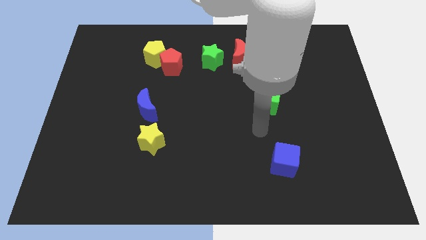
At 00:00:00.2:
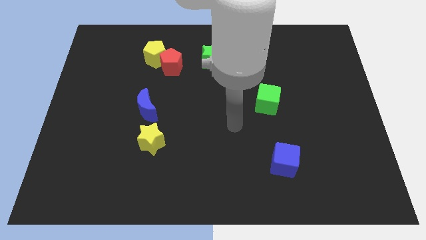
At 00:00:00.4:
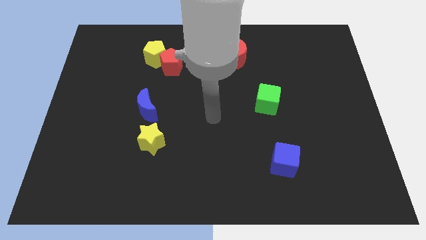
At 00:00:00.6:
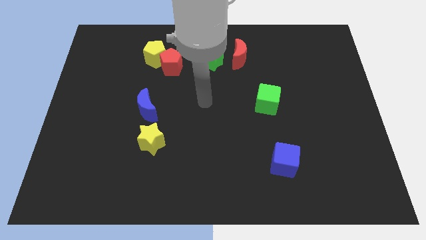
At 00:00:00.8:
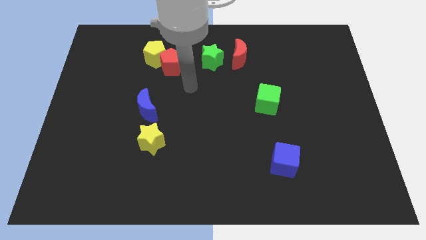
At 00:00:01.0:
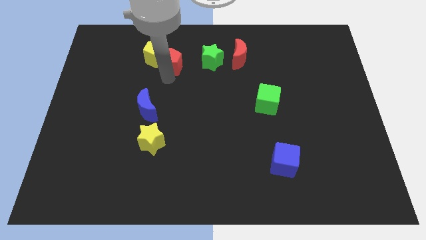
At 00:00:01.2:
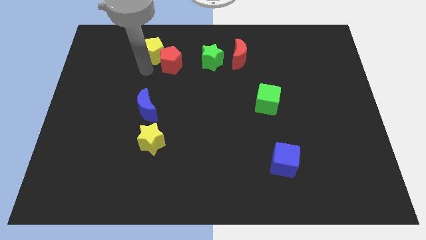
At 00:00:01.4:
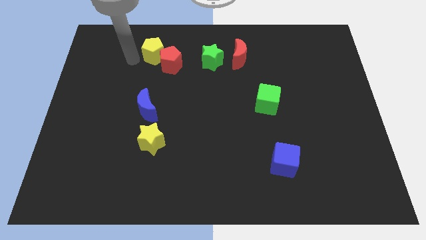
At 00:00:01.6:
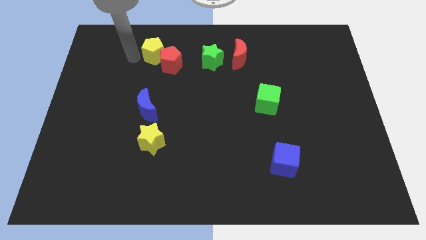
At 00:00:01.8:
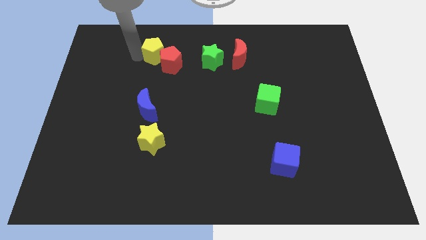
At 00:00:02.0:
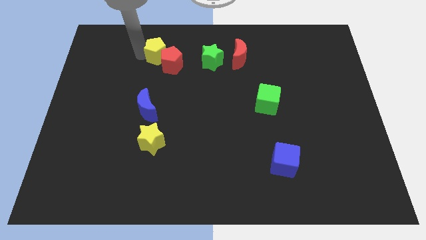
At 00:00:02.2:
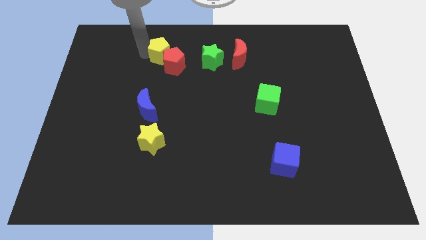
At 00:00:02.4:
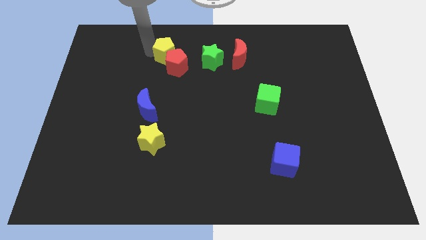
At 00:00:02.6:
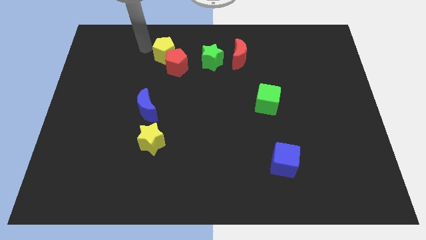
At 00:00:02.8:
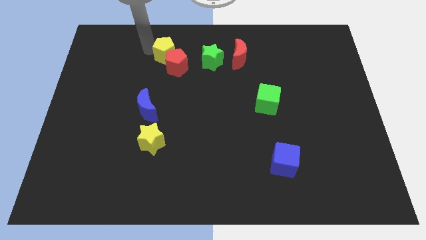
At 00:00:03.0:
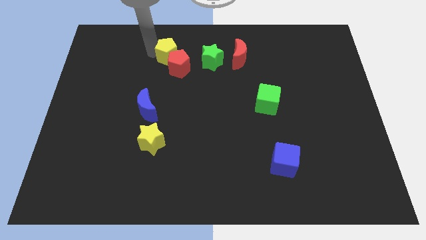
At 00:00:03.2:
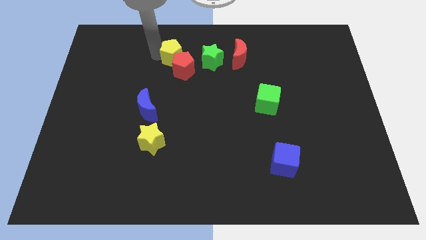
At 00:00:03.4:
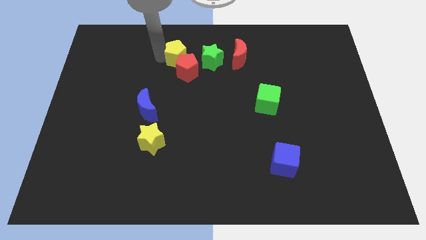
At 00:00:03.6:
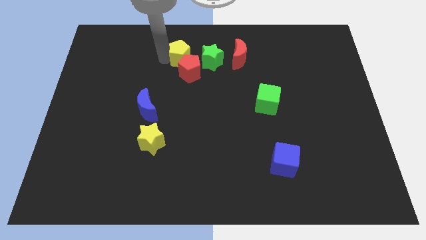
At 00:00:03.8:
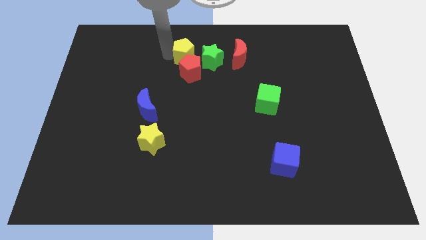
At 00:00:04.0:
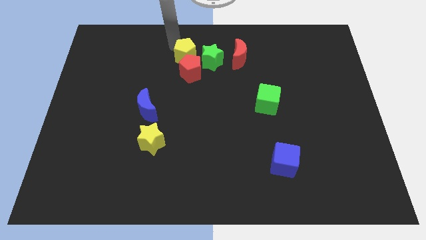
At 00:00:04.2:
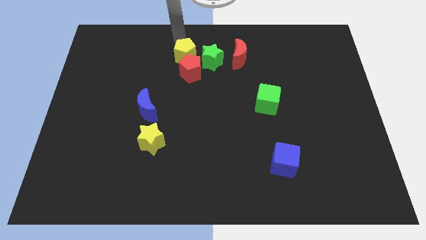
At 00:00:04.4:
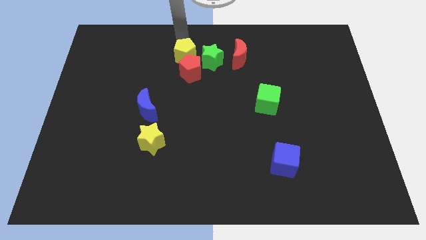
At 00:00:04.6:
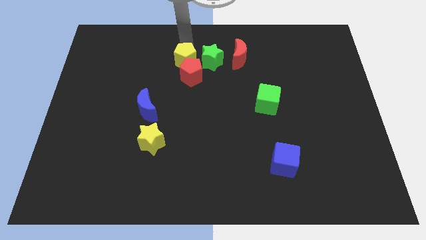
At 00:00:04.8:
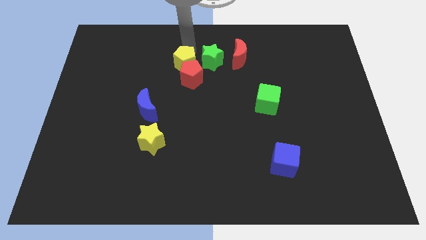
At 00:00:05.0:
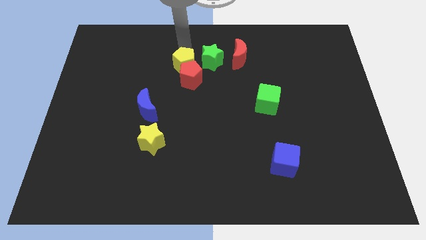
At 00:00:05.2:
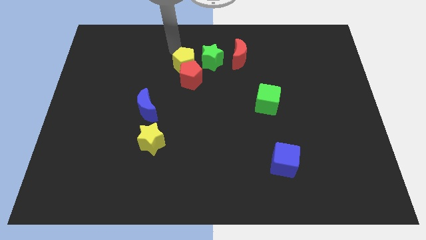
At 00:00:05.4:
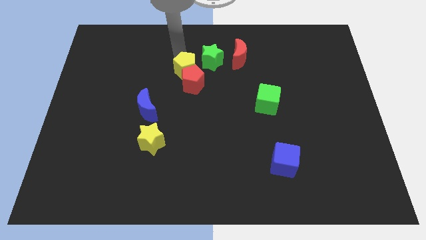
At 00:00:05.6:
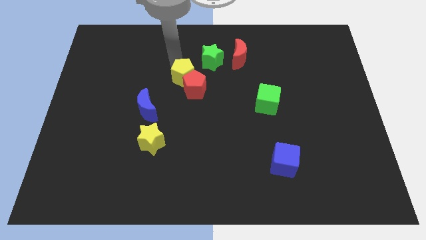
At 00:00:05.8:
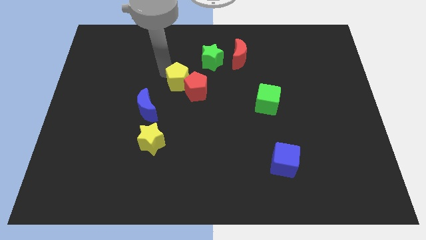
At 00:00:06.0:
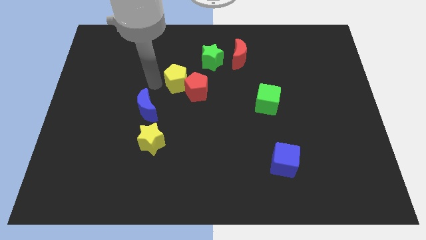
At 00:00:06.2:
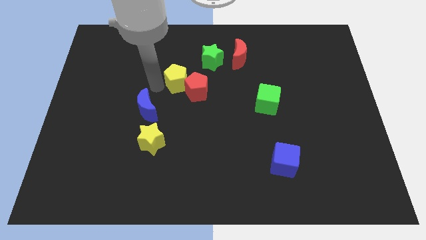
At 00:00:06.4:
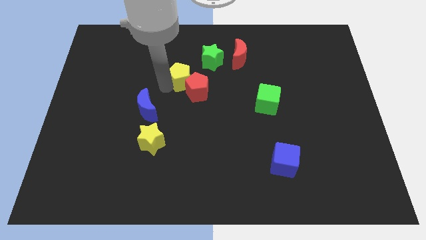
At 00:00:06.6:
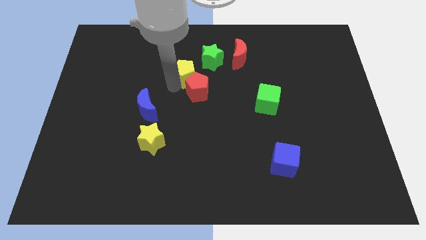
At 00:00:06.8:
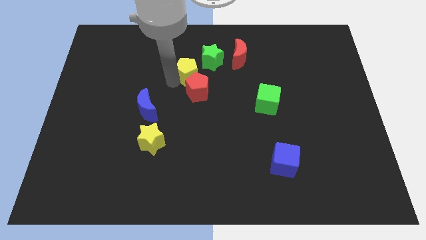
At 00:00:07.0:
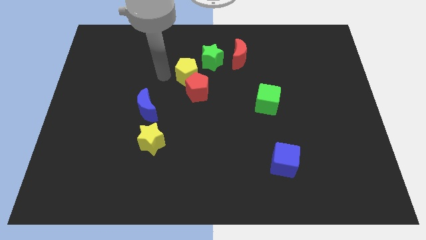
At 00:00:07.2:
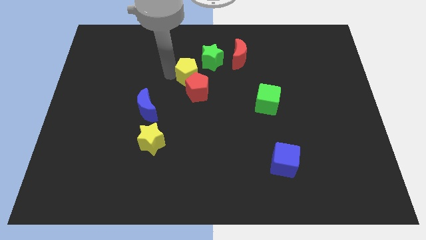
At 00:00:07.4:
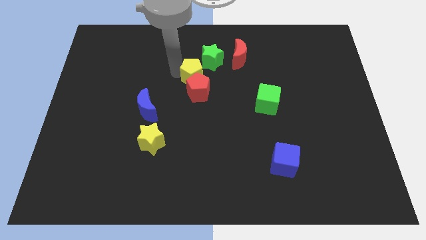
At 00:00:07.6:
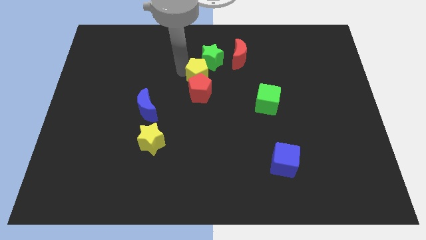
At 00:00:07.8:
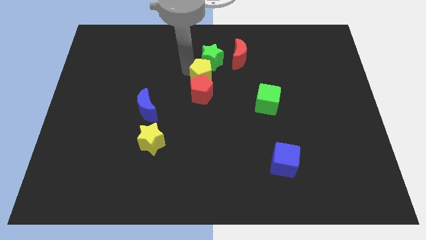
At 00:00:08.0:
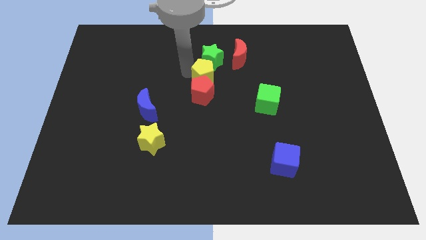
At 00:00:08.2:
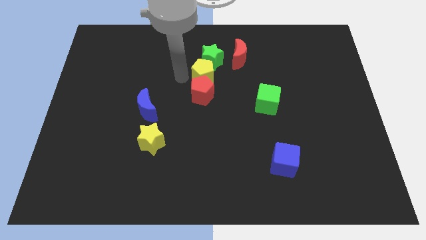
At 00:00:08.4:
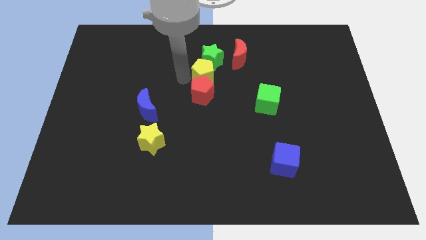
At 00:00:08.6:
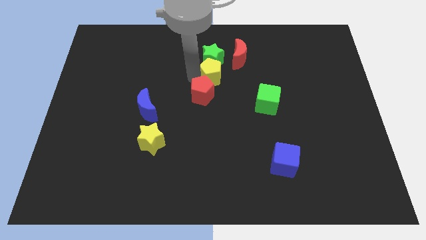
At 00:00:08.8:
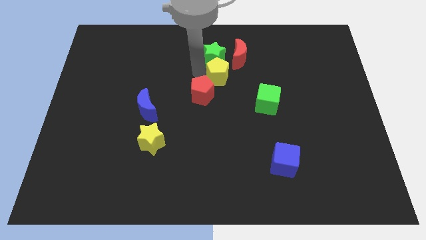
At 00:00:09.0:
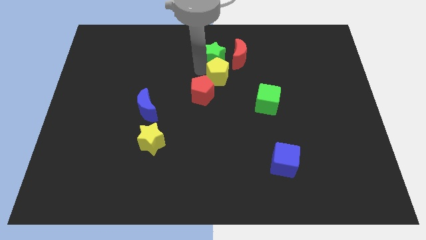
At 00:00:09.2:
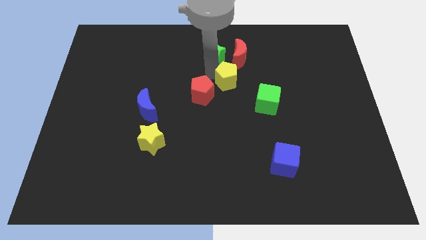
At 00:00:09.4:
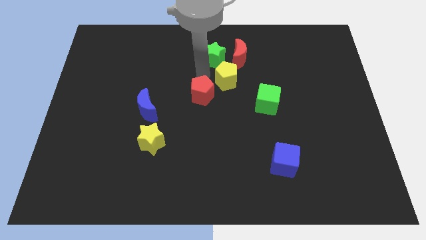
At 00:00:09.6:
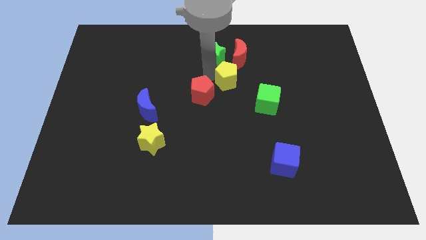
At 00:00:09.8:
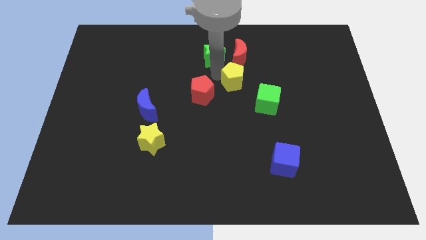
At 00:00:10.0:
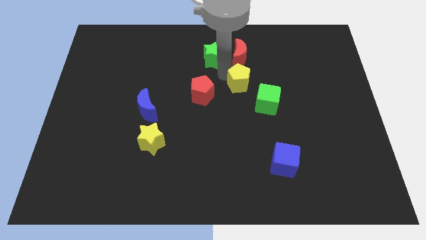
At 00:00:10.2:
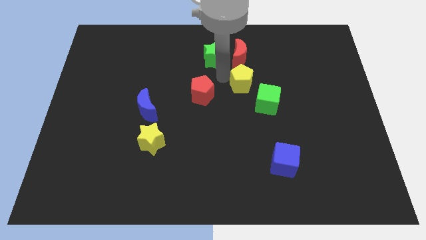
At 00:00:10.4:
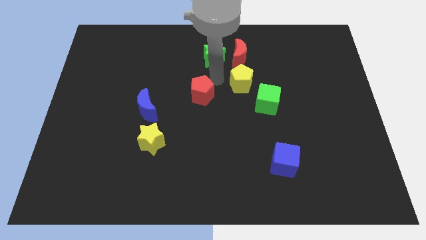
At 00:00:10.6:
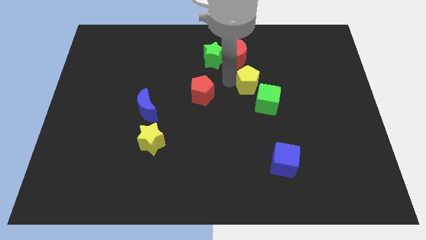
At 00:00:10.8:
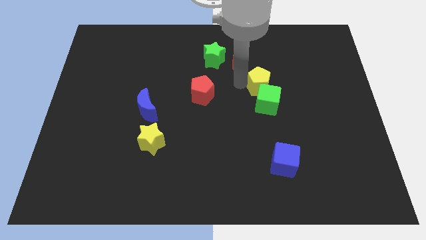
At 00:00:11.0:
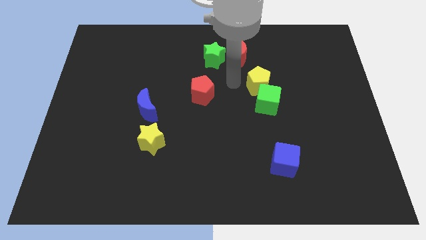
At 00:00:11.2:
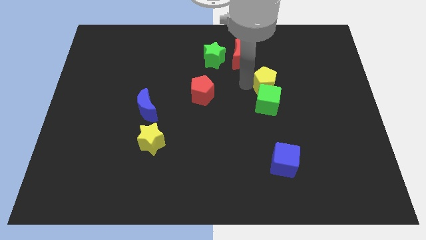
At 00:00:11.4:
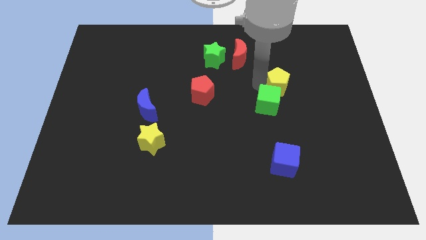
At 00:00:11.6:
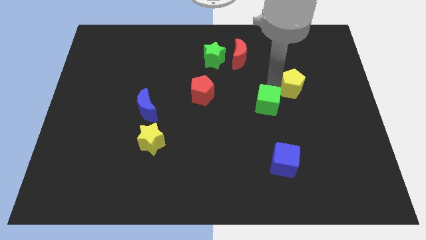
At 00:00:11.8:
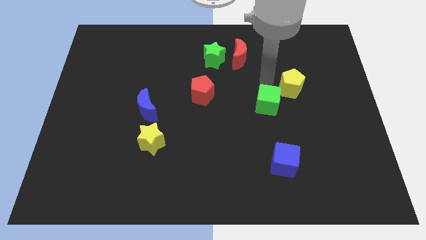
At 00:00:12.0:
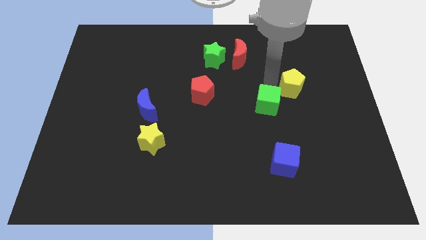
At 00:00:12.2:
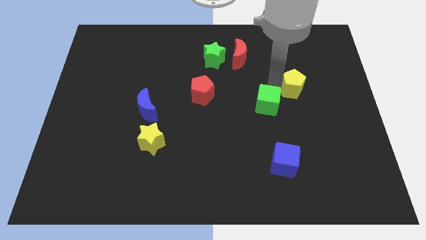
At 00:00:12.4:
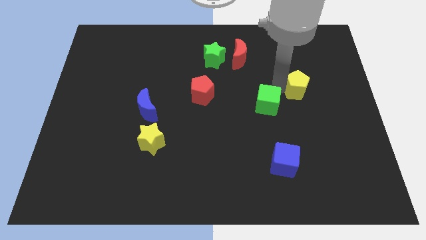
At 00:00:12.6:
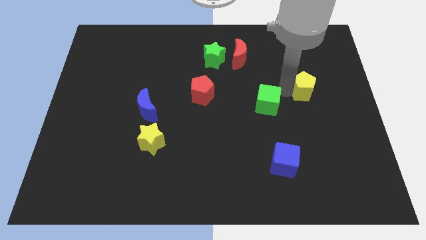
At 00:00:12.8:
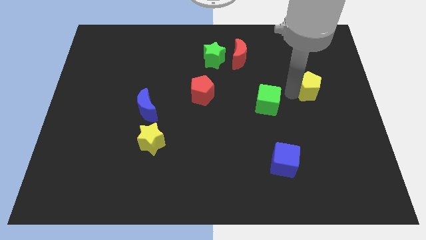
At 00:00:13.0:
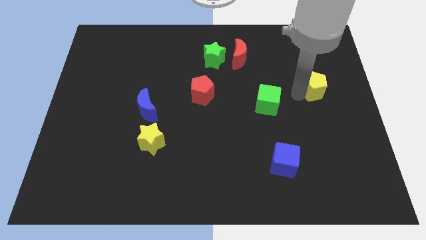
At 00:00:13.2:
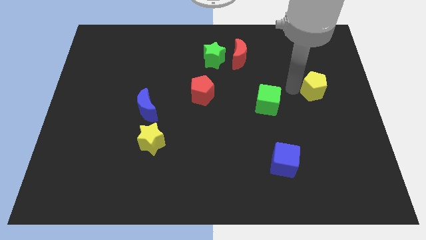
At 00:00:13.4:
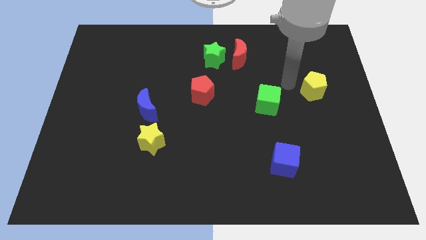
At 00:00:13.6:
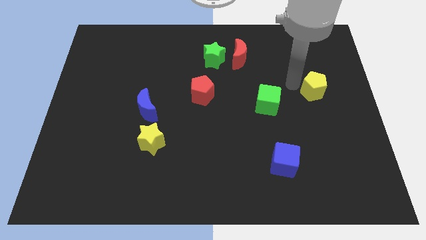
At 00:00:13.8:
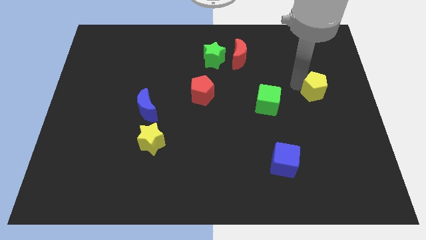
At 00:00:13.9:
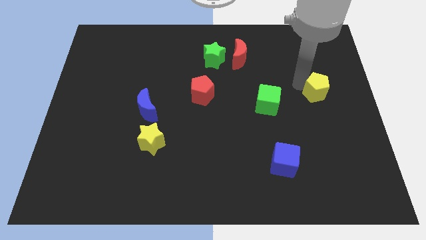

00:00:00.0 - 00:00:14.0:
move the yellow pentagon to the right side

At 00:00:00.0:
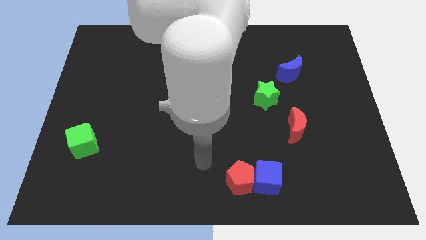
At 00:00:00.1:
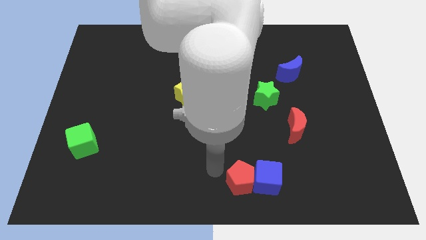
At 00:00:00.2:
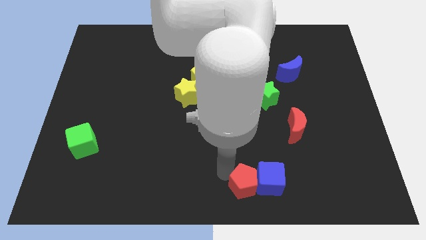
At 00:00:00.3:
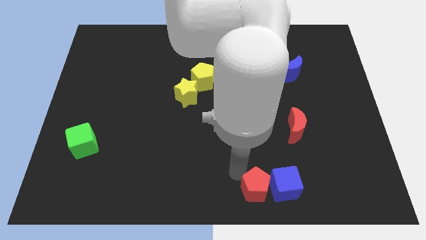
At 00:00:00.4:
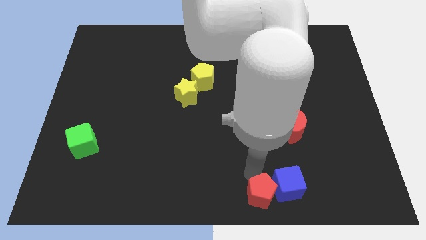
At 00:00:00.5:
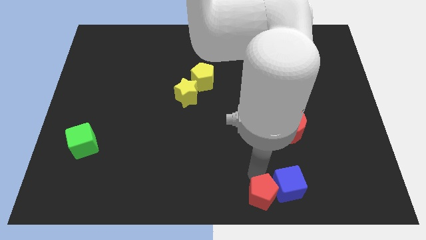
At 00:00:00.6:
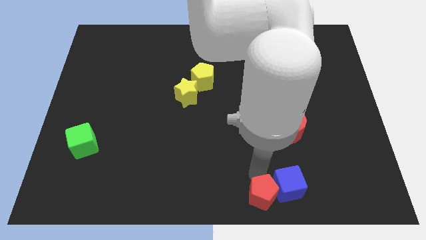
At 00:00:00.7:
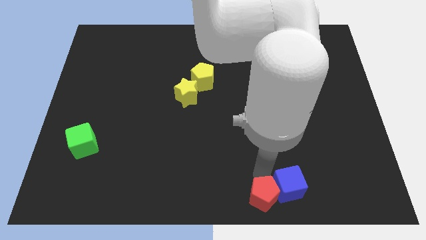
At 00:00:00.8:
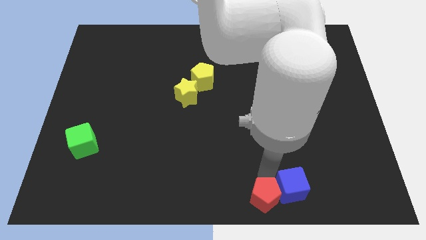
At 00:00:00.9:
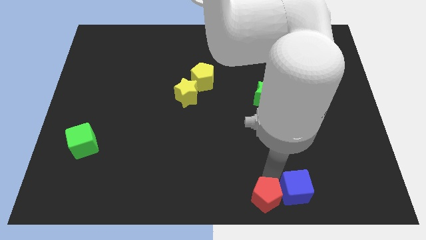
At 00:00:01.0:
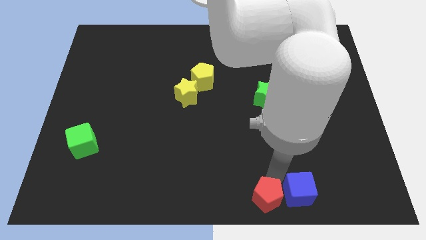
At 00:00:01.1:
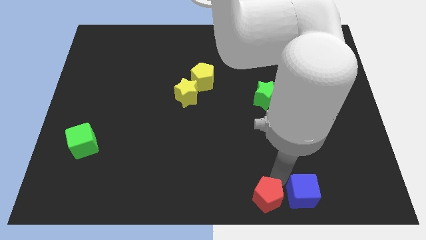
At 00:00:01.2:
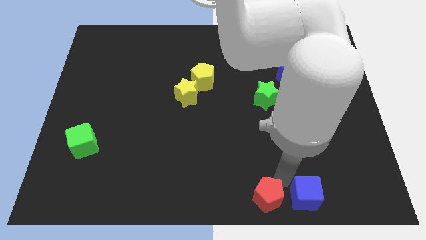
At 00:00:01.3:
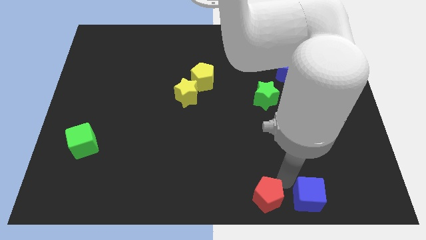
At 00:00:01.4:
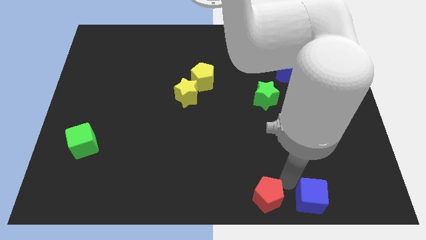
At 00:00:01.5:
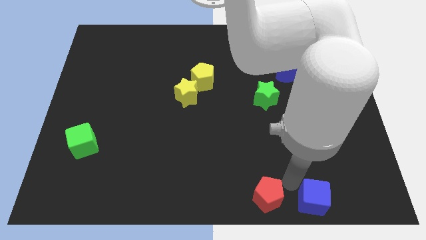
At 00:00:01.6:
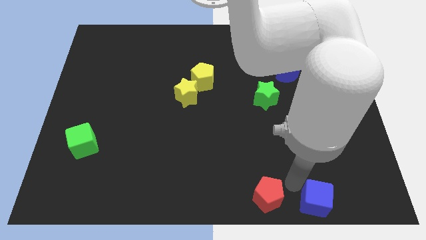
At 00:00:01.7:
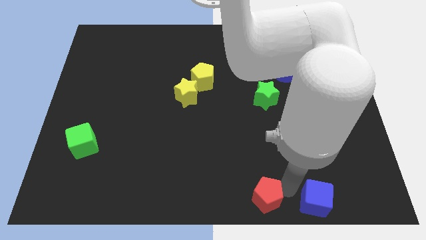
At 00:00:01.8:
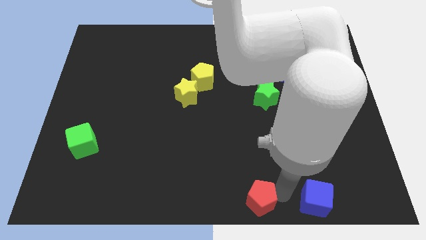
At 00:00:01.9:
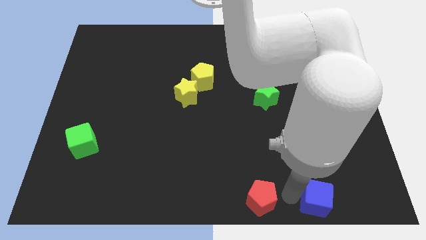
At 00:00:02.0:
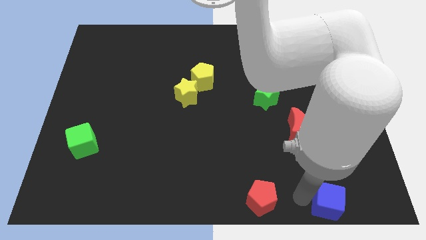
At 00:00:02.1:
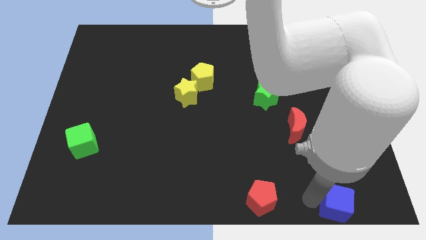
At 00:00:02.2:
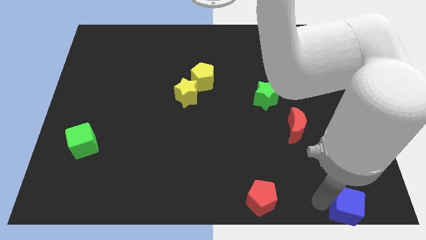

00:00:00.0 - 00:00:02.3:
push the blue cube to the bottom right of the board
